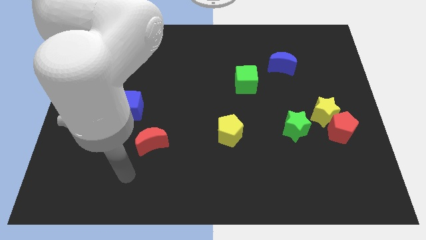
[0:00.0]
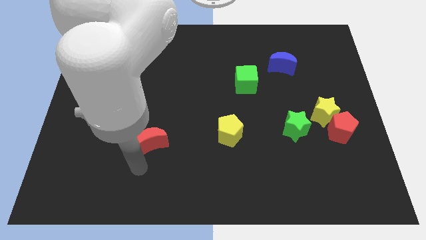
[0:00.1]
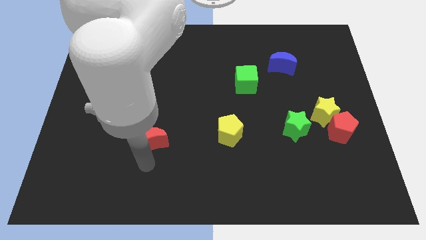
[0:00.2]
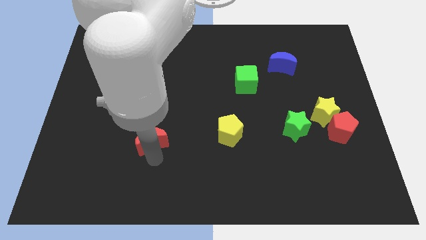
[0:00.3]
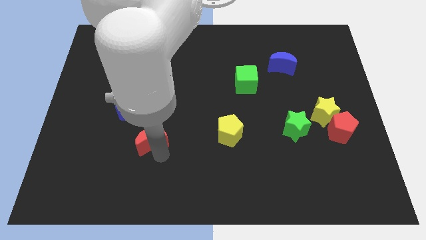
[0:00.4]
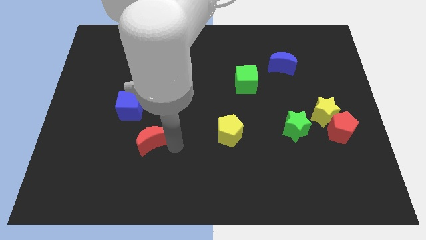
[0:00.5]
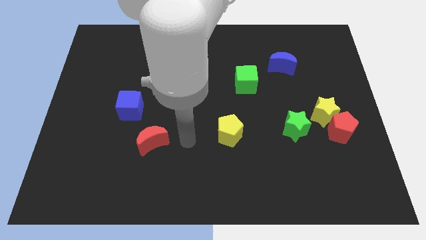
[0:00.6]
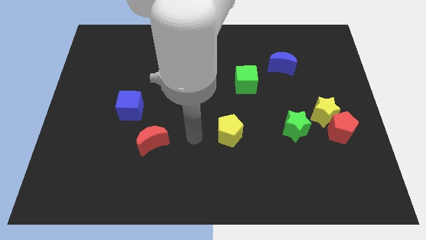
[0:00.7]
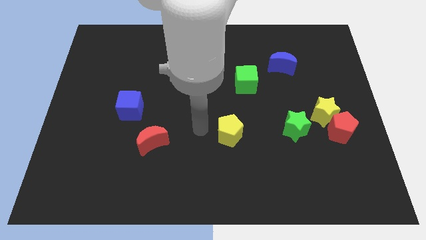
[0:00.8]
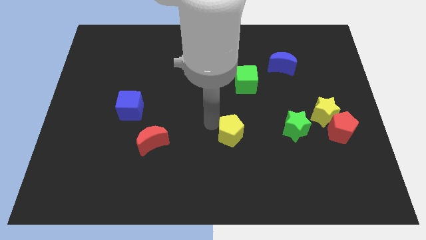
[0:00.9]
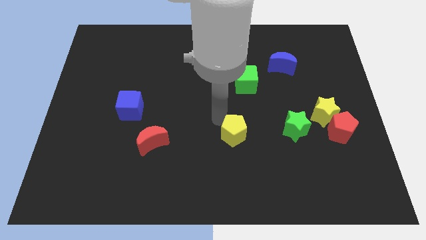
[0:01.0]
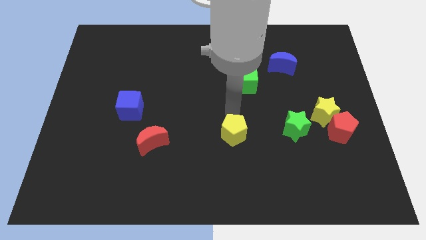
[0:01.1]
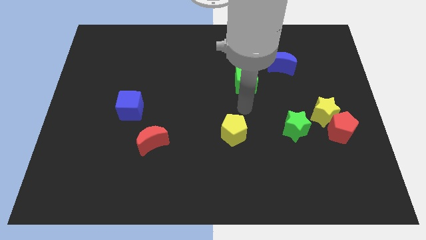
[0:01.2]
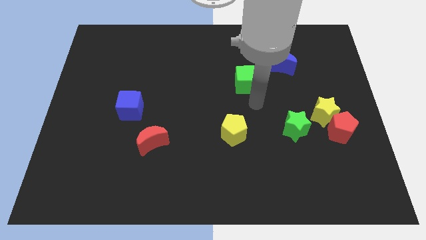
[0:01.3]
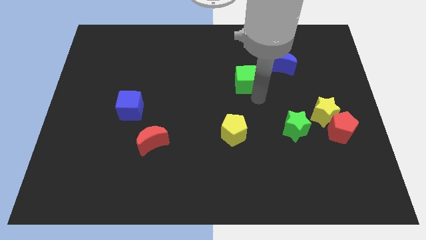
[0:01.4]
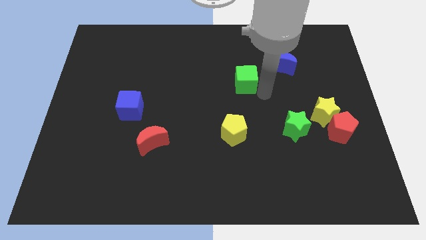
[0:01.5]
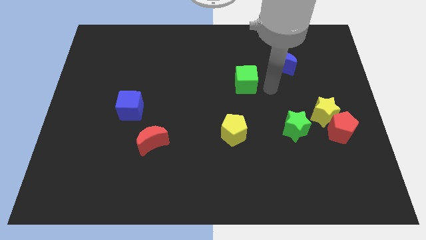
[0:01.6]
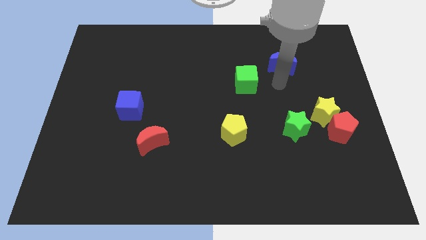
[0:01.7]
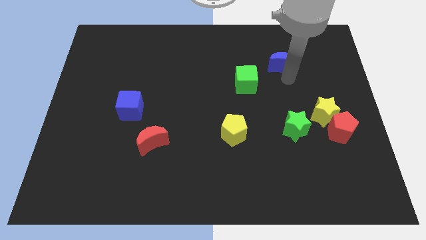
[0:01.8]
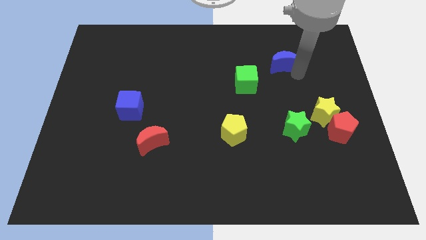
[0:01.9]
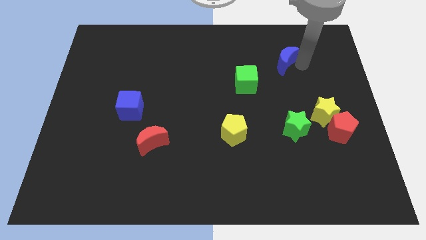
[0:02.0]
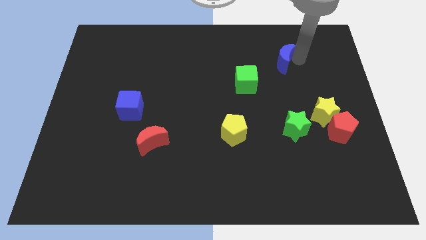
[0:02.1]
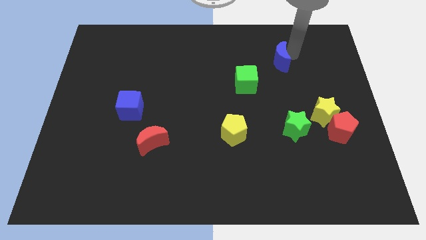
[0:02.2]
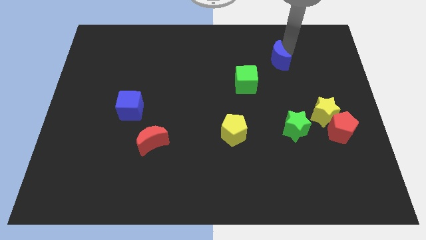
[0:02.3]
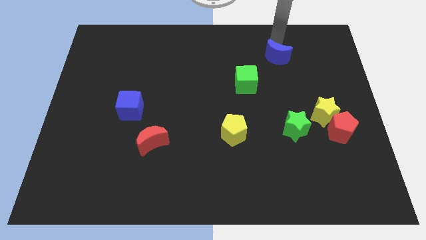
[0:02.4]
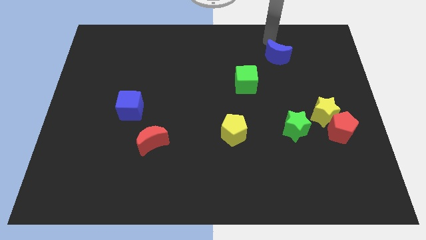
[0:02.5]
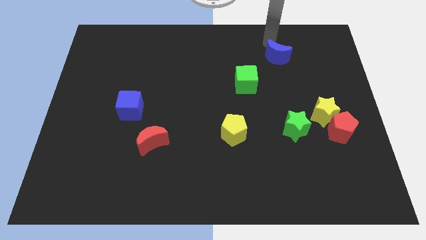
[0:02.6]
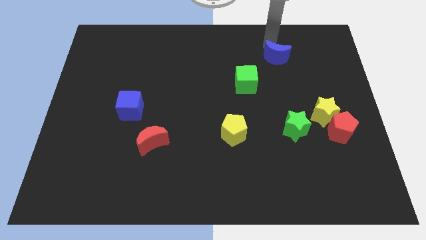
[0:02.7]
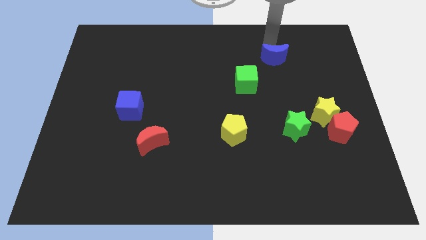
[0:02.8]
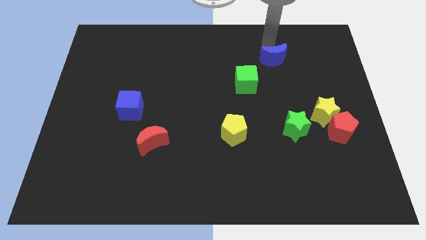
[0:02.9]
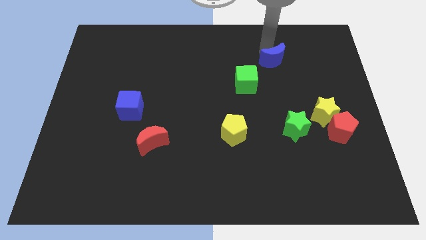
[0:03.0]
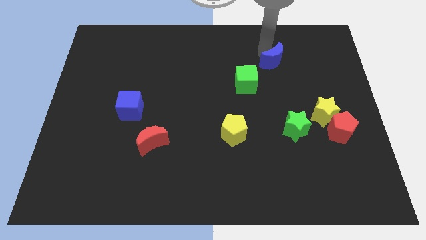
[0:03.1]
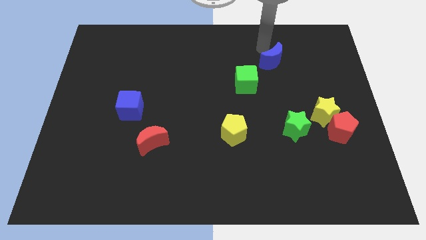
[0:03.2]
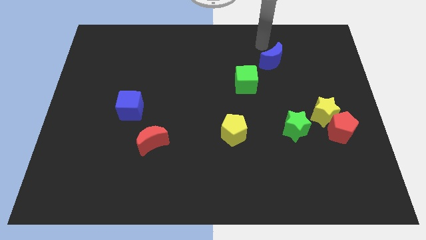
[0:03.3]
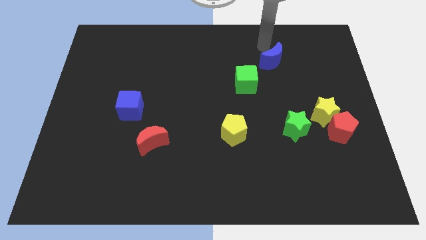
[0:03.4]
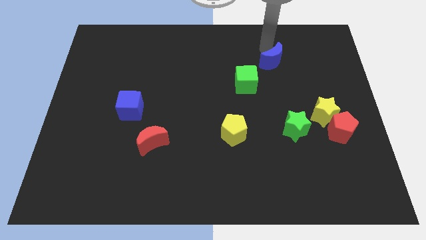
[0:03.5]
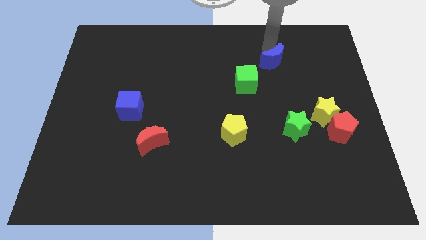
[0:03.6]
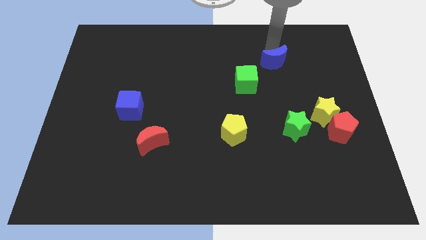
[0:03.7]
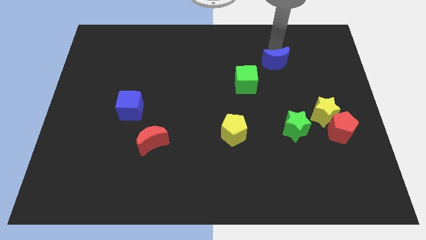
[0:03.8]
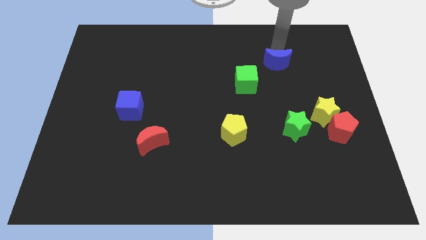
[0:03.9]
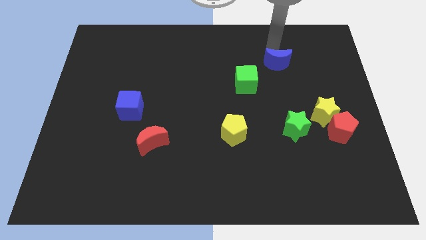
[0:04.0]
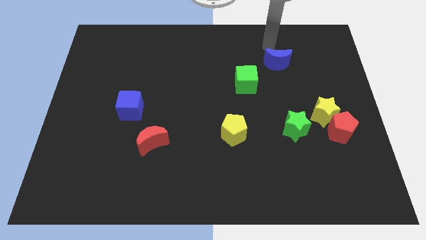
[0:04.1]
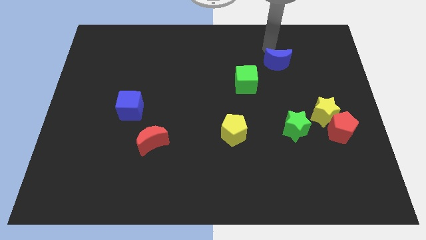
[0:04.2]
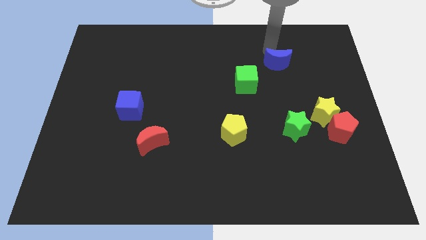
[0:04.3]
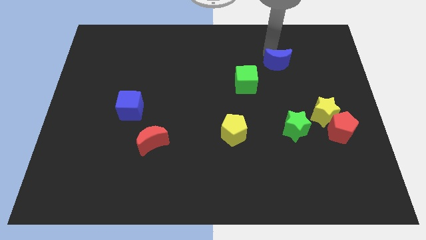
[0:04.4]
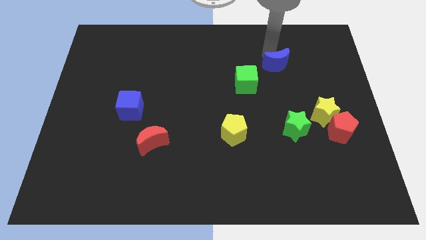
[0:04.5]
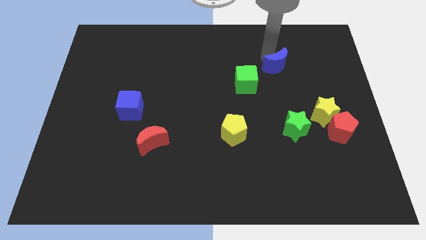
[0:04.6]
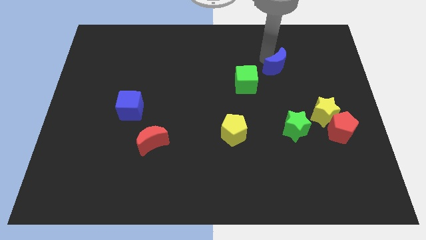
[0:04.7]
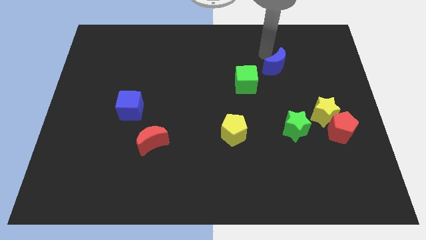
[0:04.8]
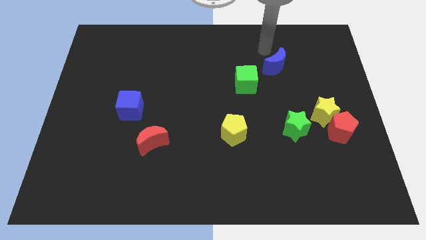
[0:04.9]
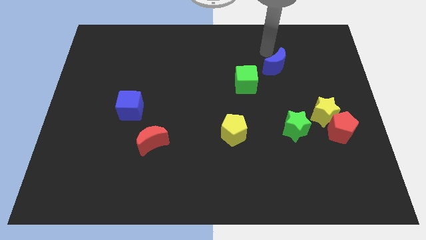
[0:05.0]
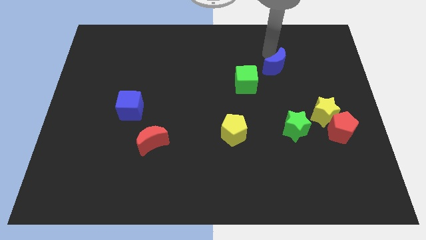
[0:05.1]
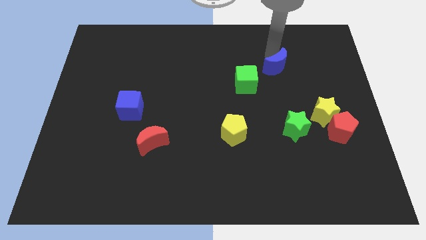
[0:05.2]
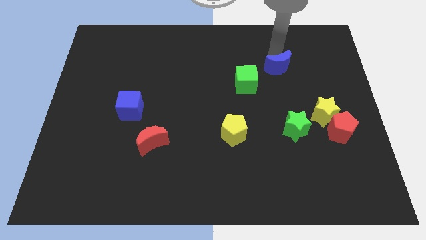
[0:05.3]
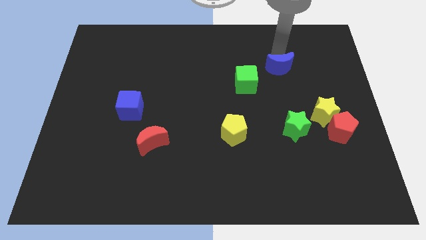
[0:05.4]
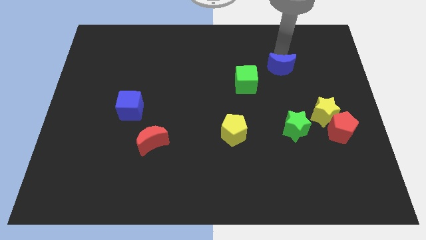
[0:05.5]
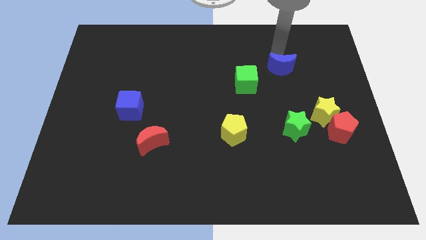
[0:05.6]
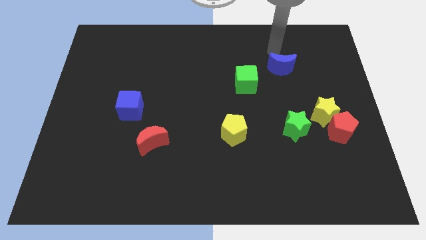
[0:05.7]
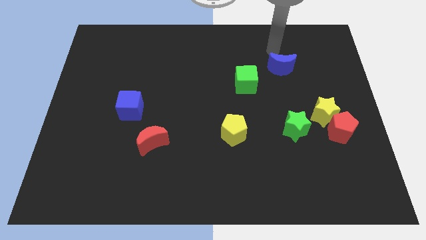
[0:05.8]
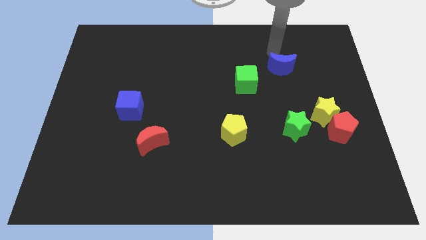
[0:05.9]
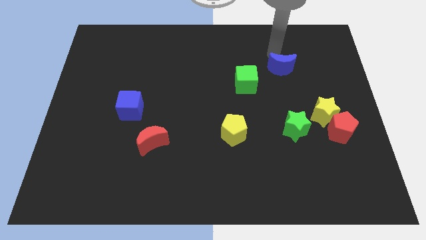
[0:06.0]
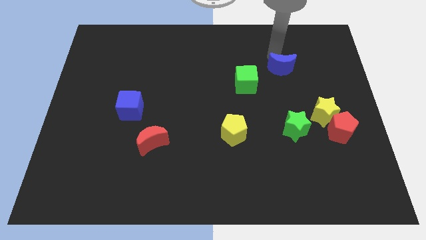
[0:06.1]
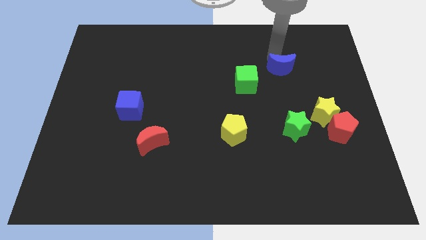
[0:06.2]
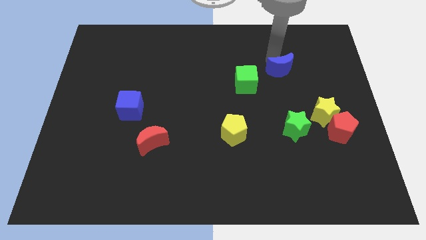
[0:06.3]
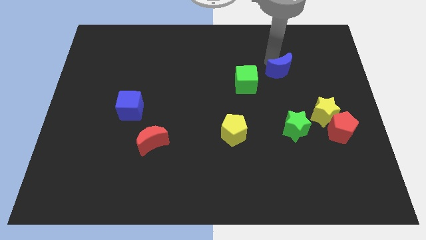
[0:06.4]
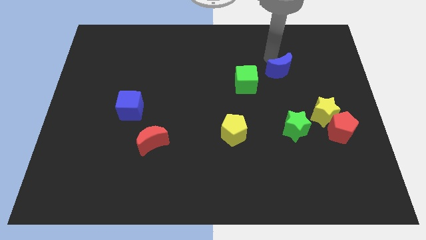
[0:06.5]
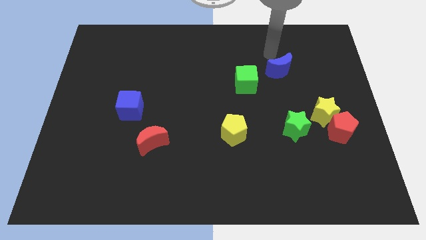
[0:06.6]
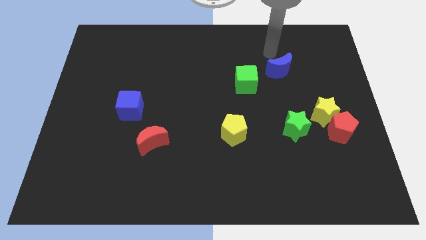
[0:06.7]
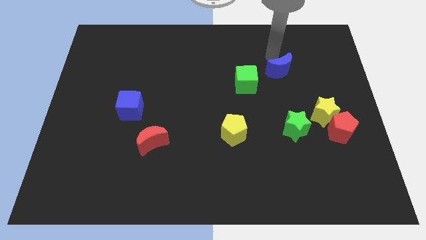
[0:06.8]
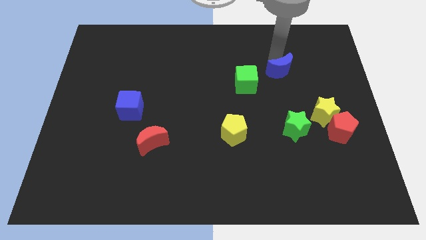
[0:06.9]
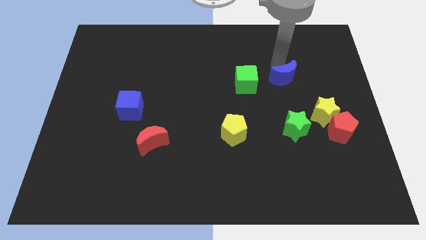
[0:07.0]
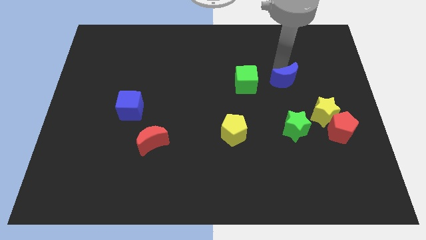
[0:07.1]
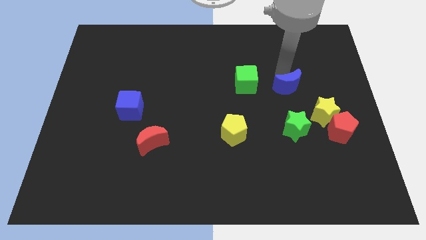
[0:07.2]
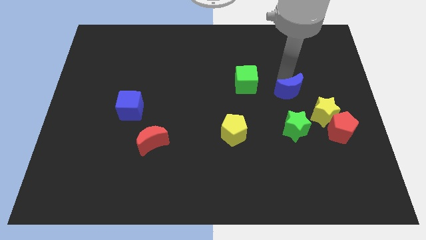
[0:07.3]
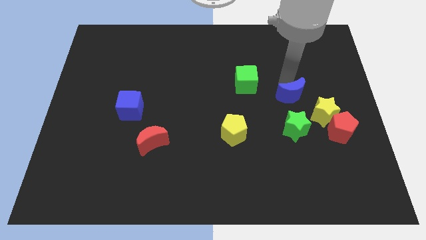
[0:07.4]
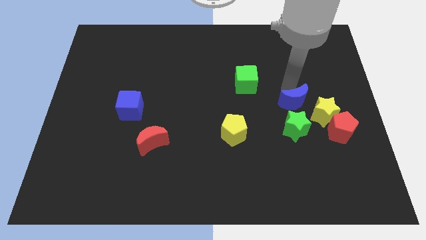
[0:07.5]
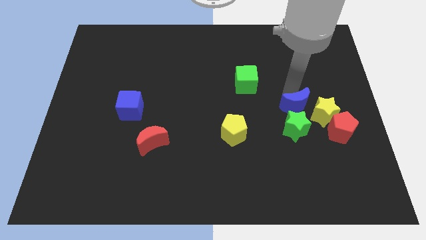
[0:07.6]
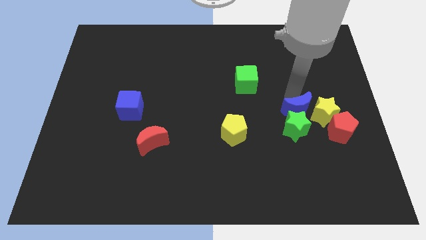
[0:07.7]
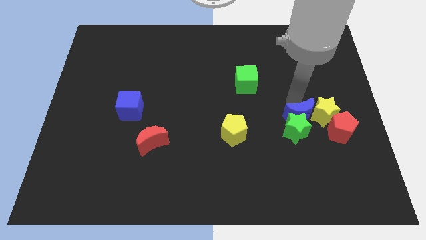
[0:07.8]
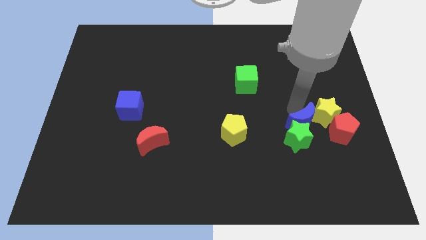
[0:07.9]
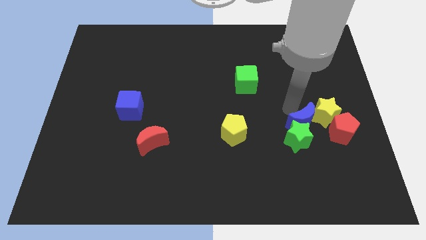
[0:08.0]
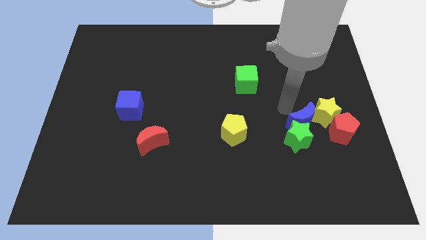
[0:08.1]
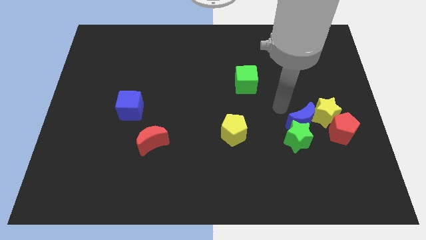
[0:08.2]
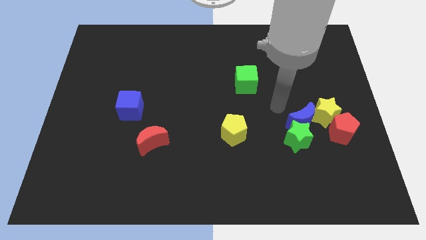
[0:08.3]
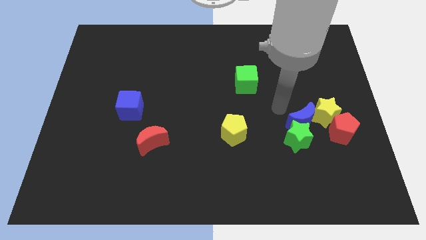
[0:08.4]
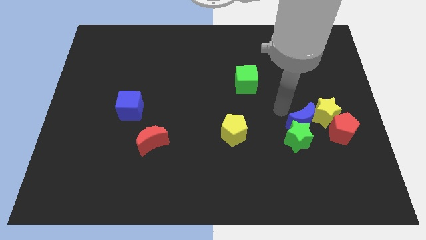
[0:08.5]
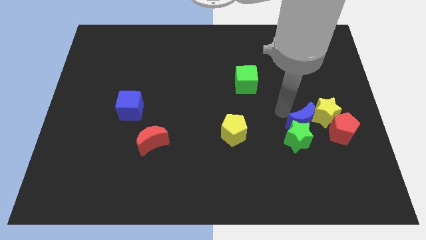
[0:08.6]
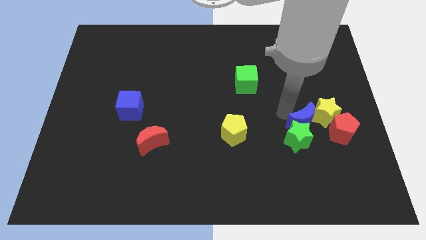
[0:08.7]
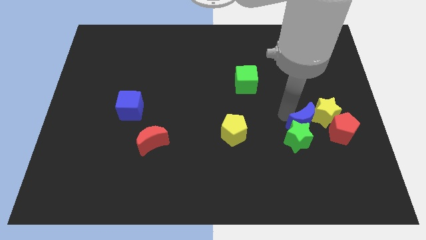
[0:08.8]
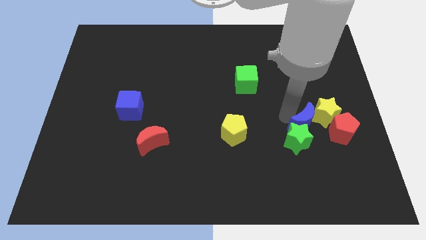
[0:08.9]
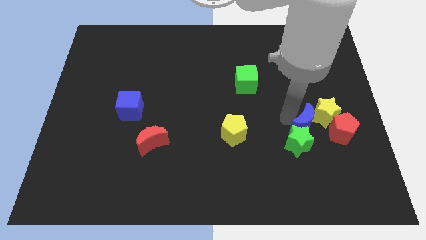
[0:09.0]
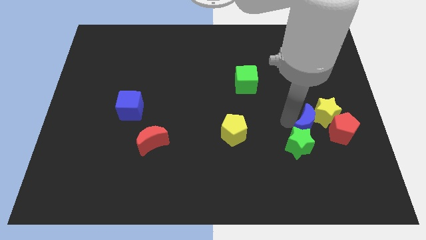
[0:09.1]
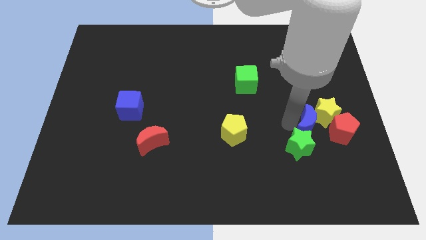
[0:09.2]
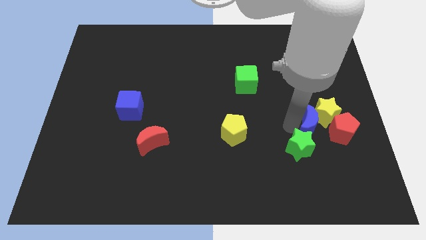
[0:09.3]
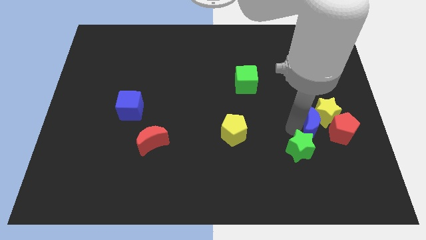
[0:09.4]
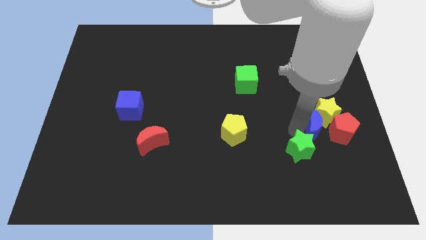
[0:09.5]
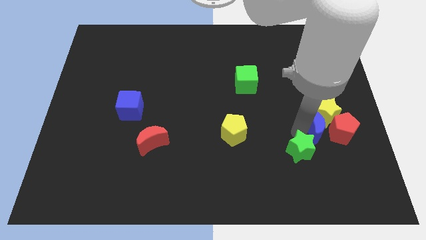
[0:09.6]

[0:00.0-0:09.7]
move the blue moon towards the red pentagon
